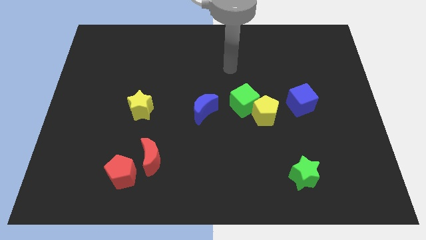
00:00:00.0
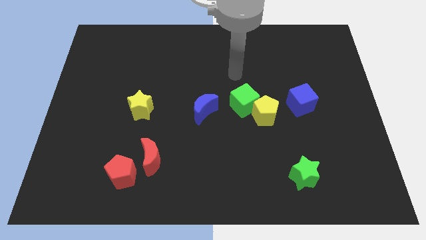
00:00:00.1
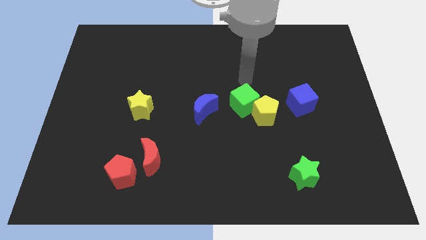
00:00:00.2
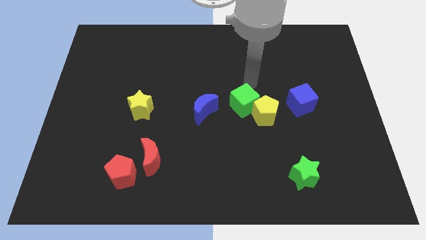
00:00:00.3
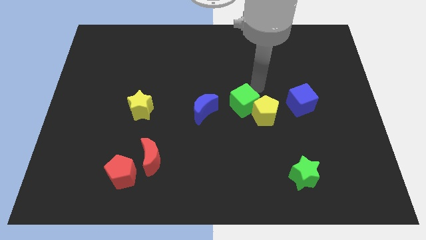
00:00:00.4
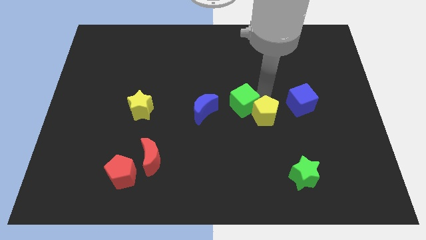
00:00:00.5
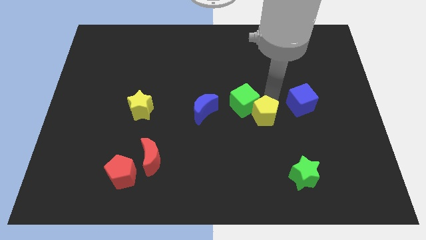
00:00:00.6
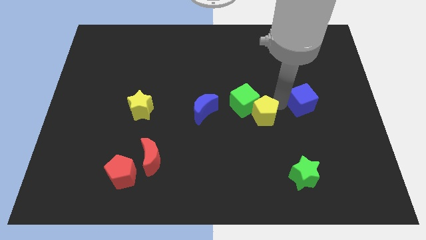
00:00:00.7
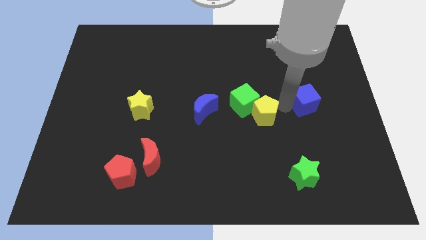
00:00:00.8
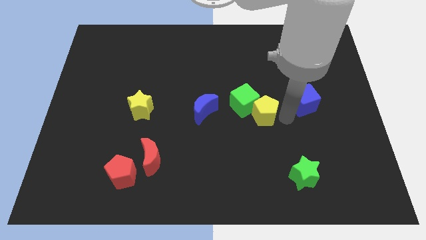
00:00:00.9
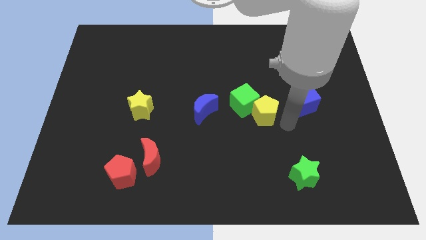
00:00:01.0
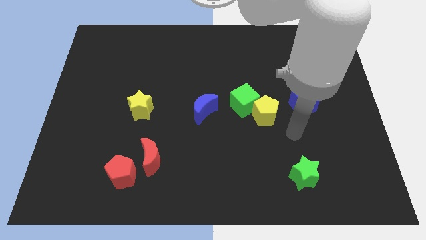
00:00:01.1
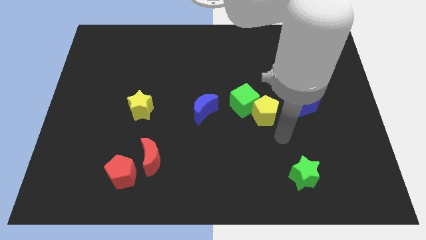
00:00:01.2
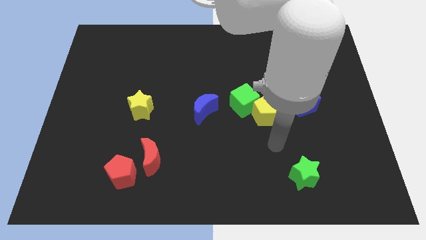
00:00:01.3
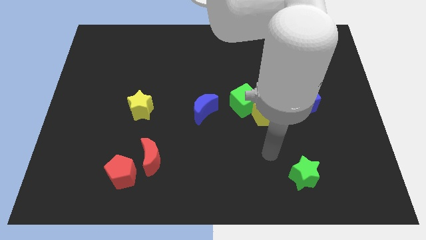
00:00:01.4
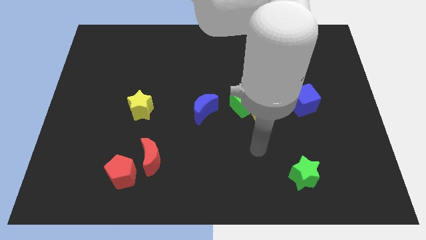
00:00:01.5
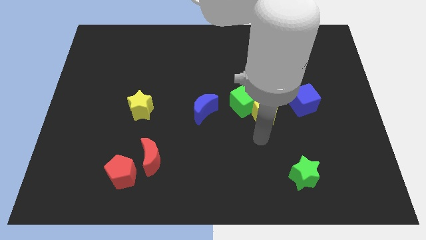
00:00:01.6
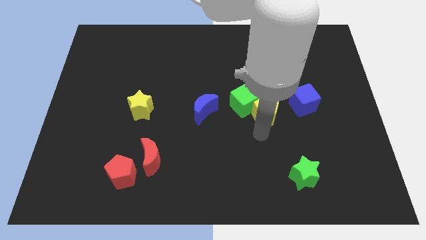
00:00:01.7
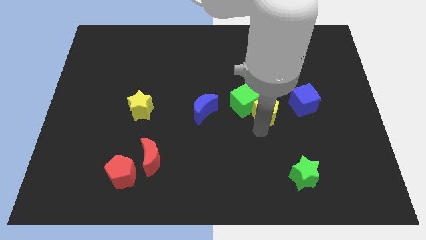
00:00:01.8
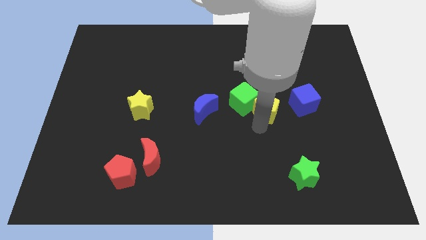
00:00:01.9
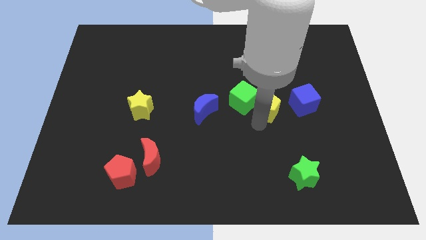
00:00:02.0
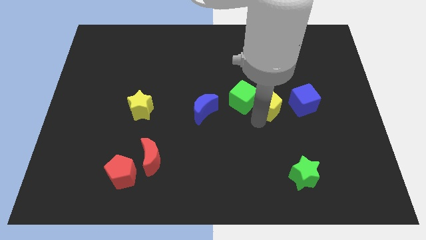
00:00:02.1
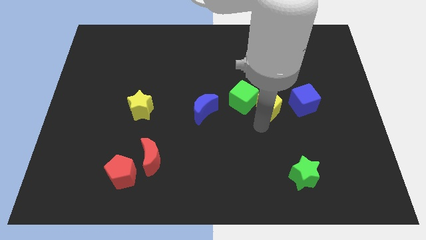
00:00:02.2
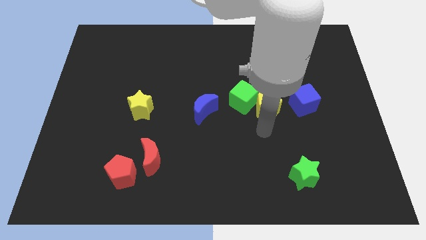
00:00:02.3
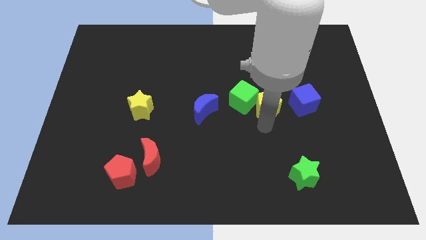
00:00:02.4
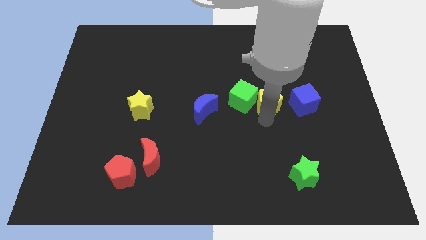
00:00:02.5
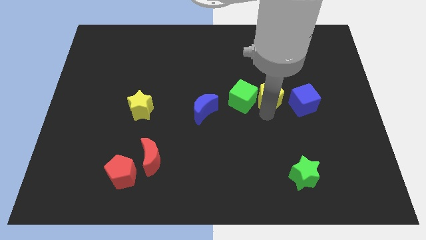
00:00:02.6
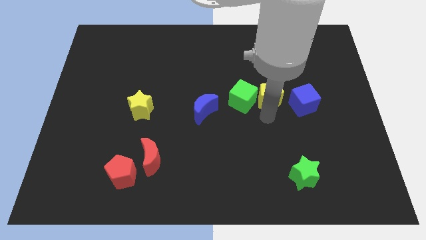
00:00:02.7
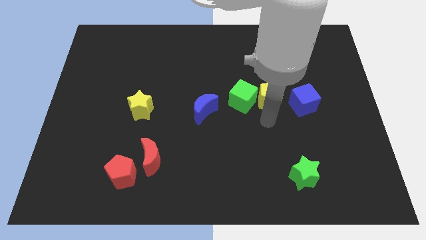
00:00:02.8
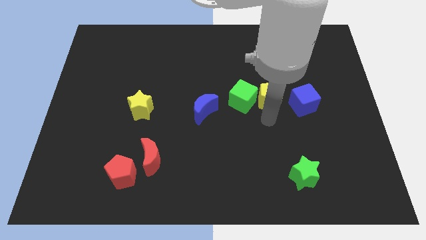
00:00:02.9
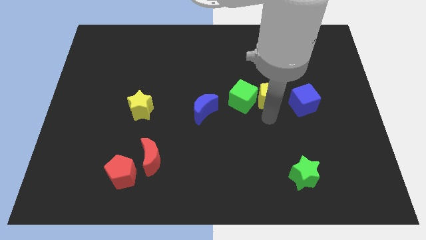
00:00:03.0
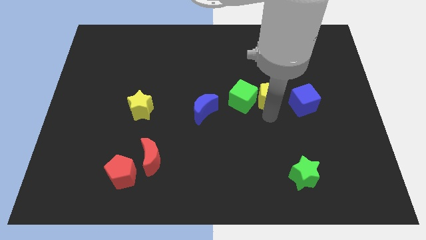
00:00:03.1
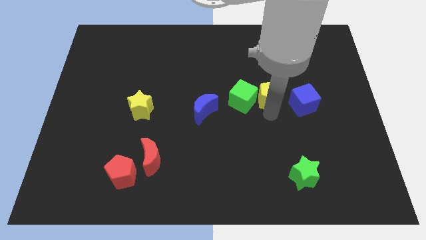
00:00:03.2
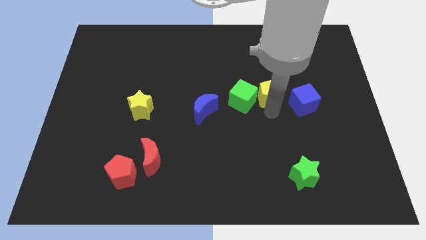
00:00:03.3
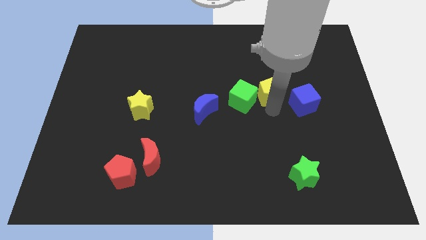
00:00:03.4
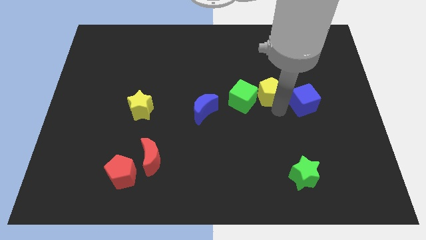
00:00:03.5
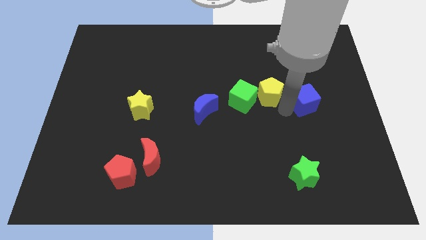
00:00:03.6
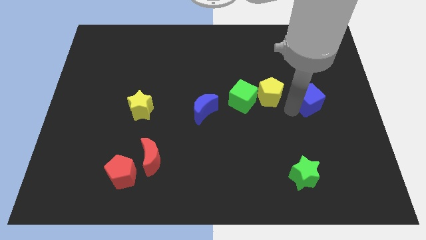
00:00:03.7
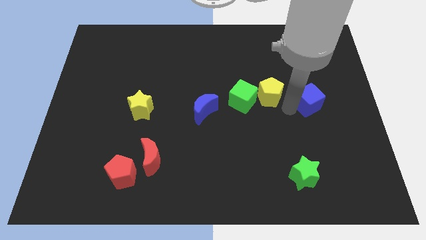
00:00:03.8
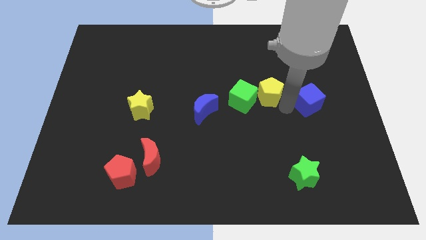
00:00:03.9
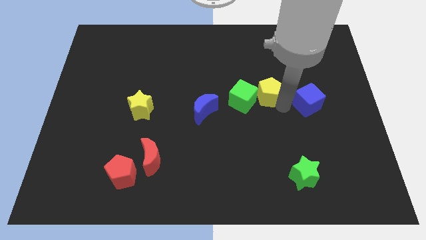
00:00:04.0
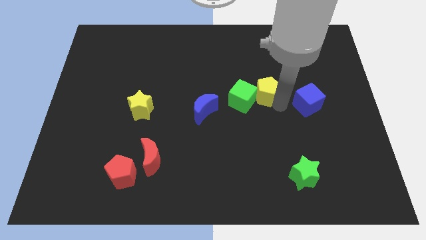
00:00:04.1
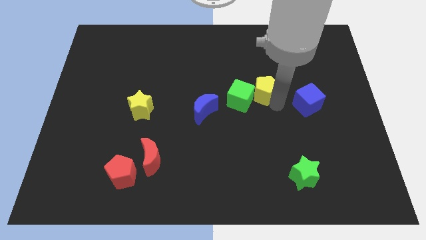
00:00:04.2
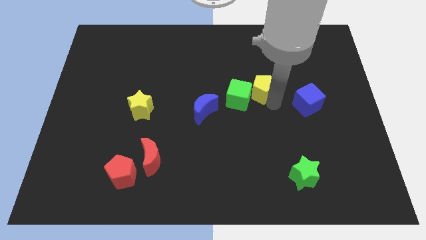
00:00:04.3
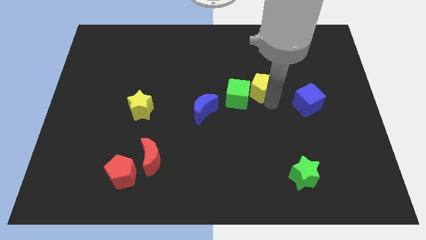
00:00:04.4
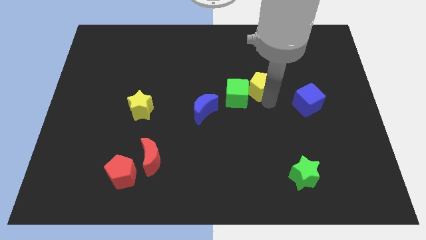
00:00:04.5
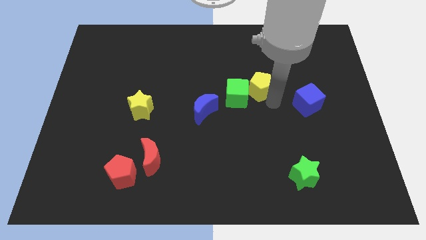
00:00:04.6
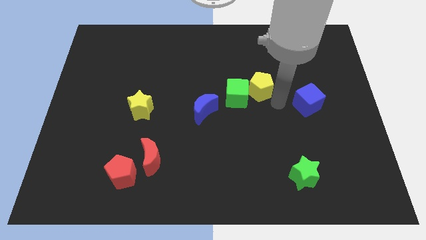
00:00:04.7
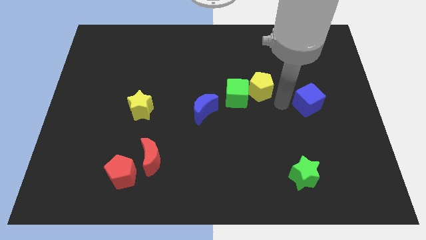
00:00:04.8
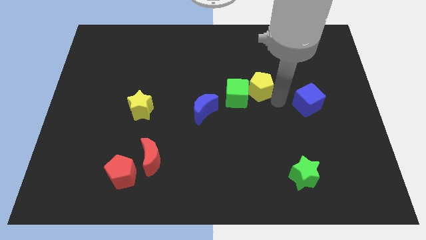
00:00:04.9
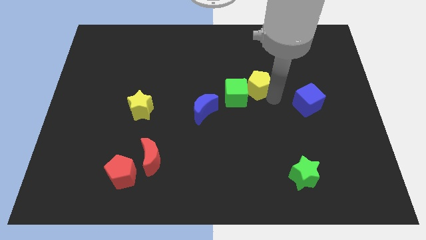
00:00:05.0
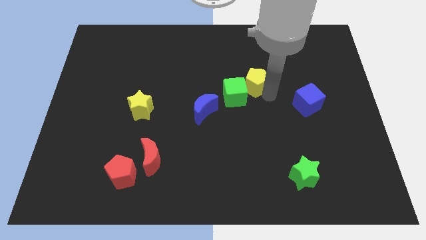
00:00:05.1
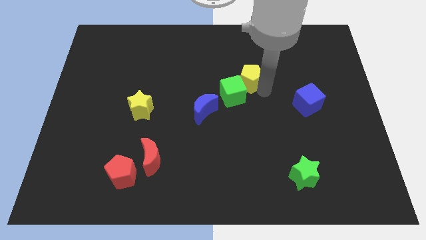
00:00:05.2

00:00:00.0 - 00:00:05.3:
push the yellow pentagon upwards and to the left a bit

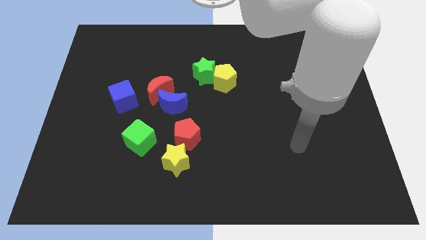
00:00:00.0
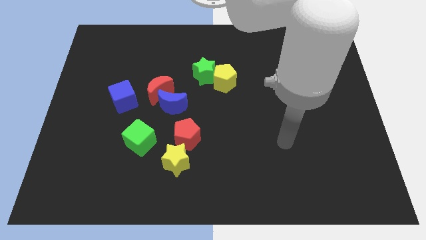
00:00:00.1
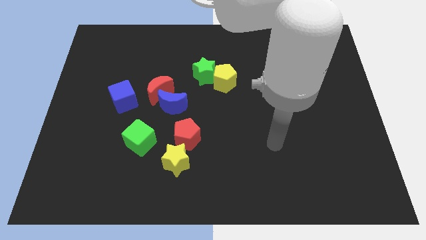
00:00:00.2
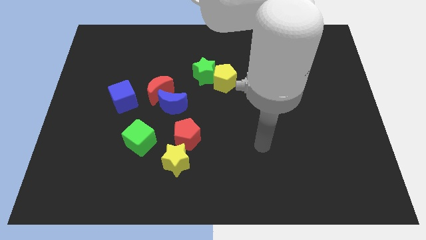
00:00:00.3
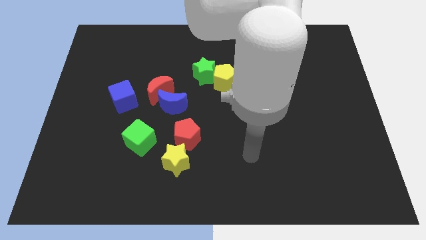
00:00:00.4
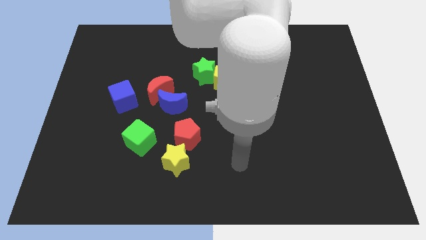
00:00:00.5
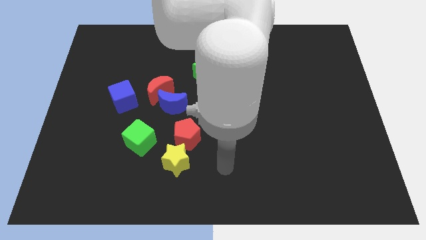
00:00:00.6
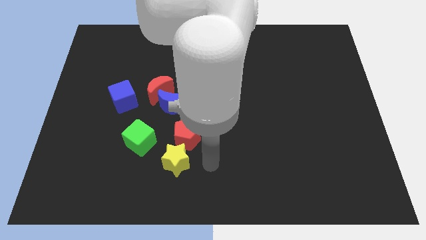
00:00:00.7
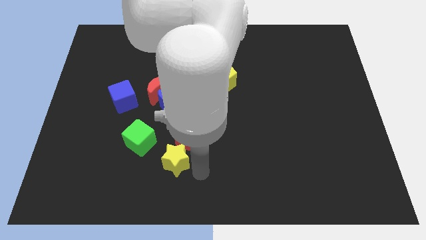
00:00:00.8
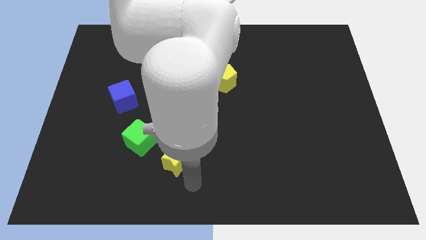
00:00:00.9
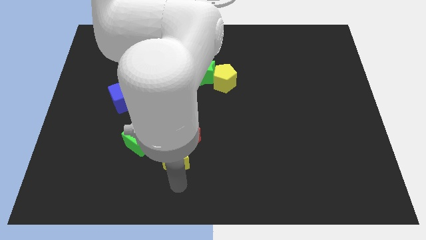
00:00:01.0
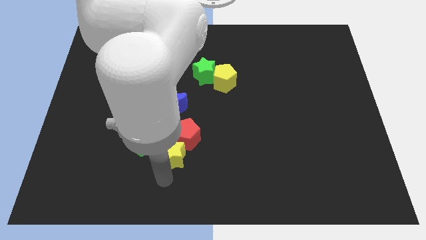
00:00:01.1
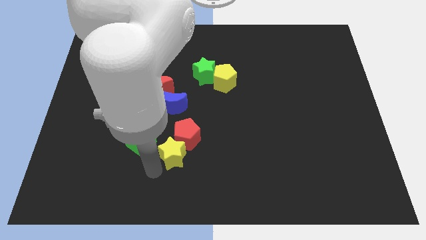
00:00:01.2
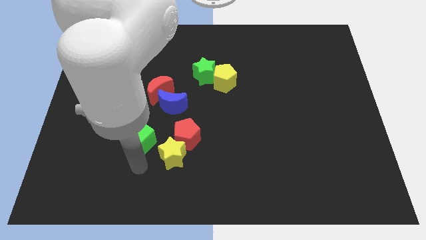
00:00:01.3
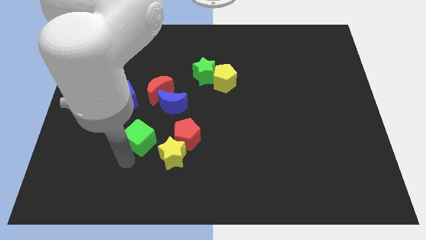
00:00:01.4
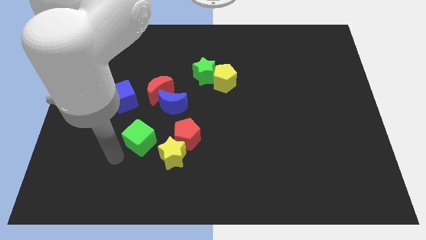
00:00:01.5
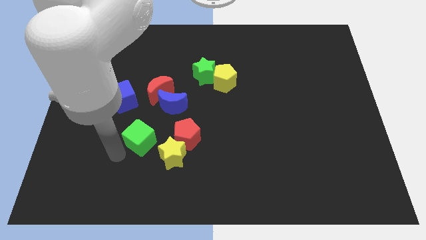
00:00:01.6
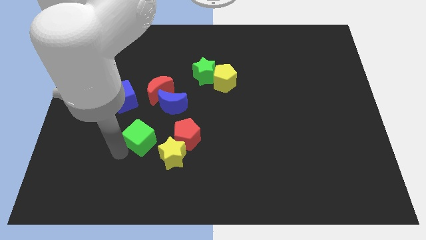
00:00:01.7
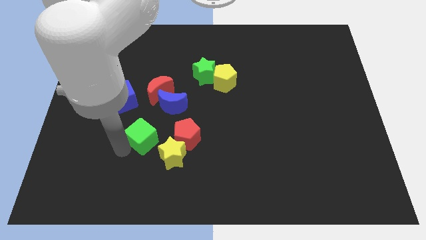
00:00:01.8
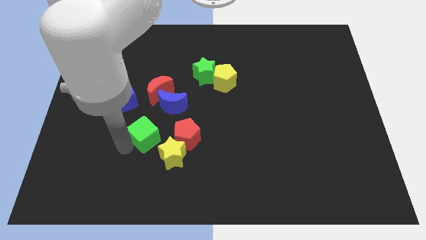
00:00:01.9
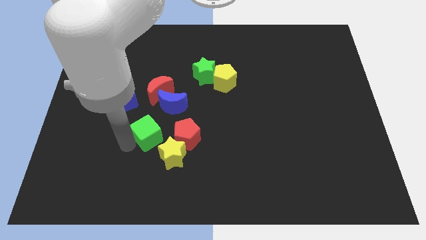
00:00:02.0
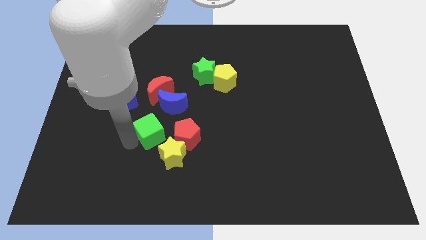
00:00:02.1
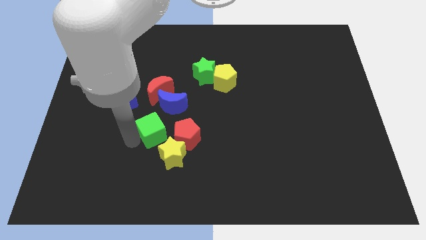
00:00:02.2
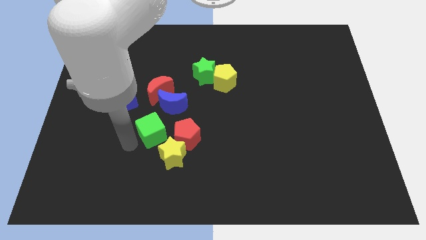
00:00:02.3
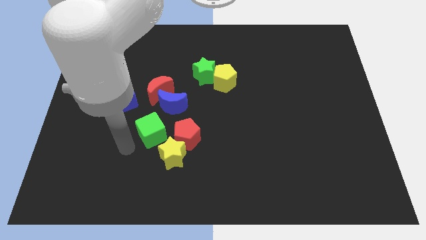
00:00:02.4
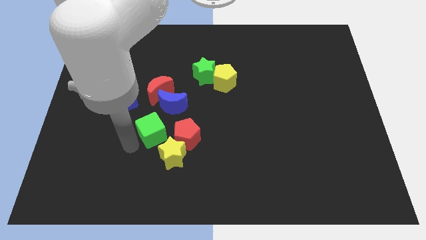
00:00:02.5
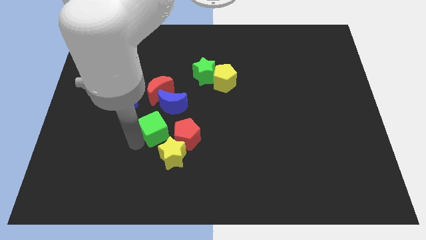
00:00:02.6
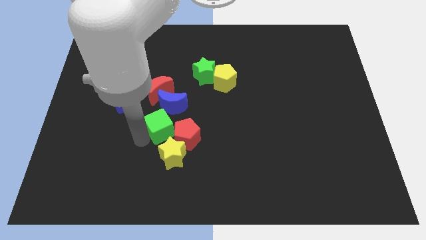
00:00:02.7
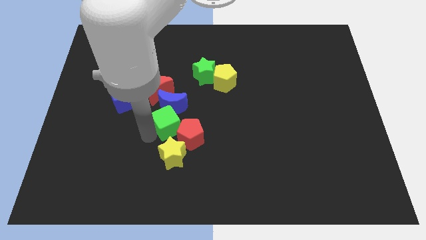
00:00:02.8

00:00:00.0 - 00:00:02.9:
slide the green cube a little bit upwards and to the right diagonally
